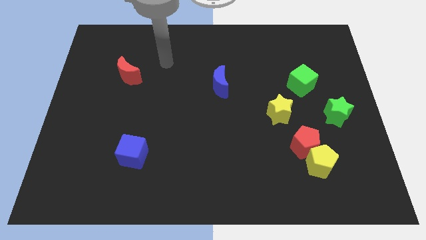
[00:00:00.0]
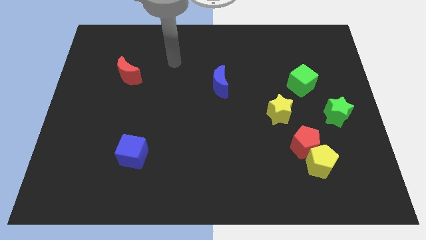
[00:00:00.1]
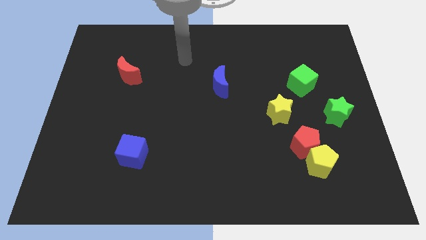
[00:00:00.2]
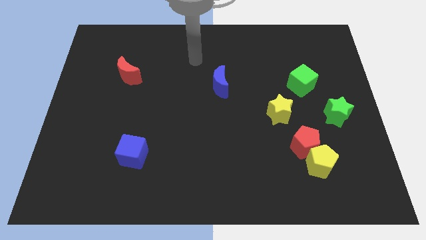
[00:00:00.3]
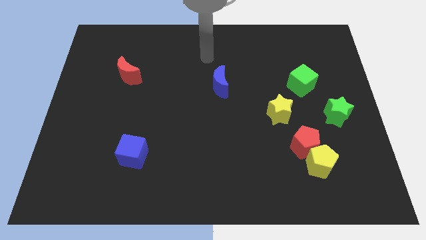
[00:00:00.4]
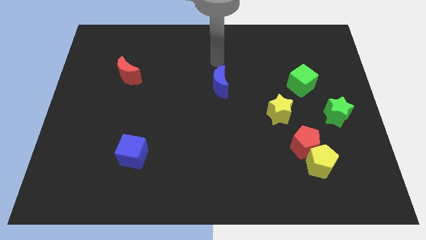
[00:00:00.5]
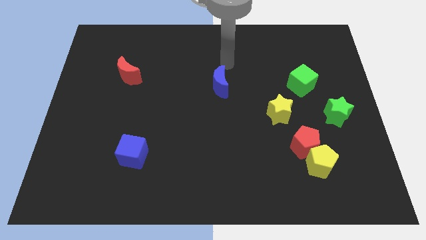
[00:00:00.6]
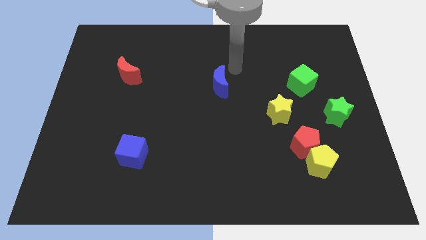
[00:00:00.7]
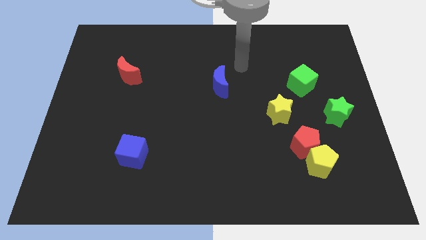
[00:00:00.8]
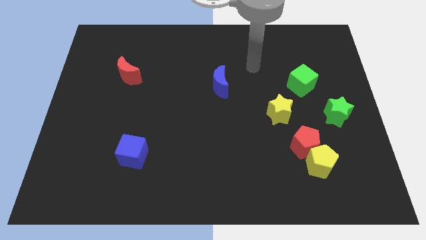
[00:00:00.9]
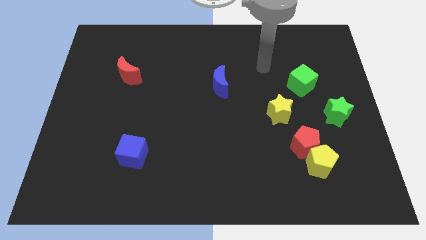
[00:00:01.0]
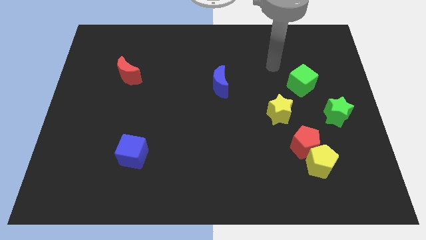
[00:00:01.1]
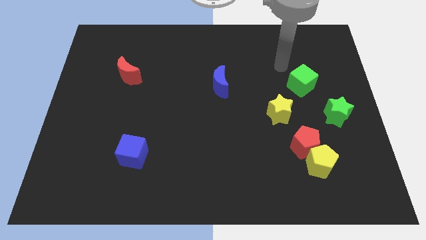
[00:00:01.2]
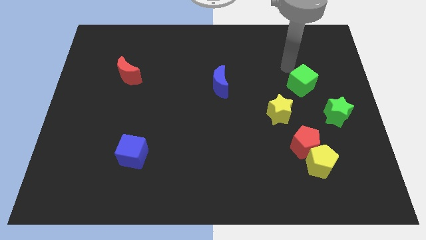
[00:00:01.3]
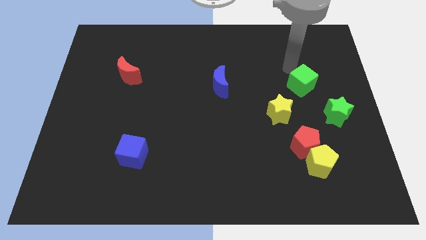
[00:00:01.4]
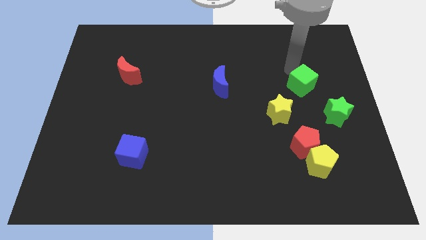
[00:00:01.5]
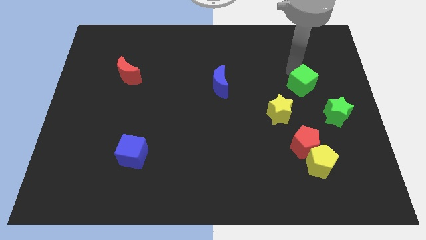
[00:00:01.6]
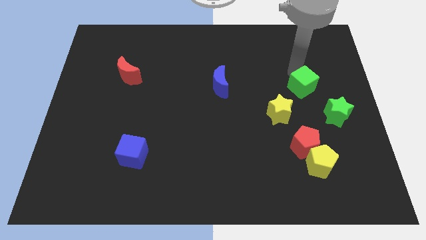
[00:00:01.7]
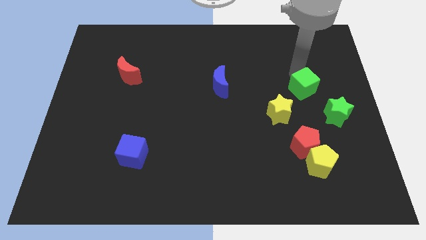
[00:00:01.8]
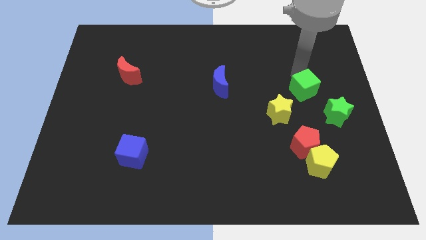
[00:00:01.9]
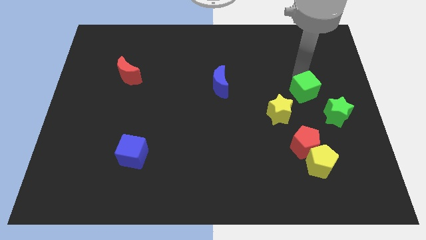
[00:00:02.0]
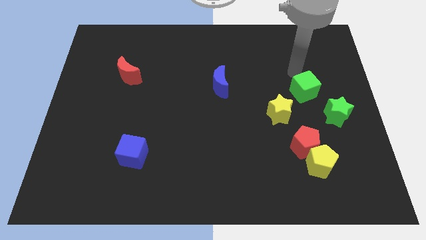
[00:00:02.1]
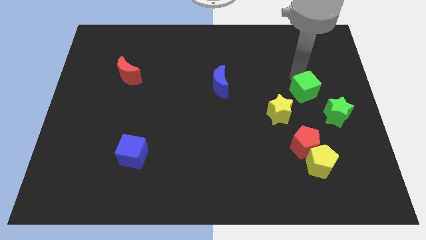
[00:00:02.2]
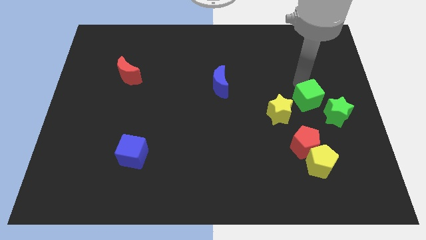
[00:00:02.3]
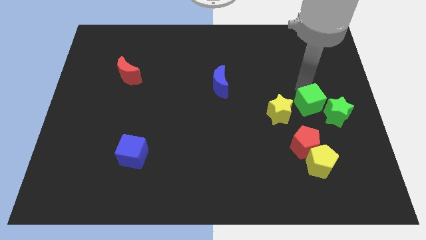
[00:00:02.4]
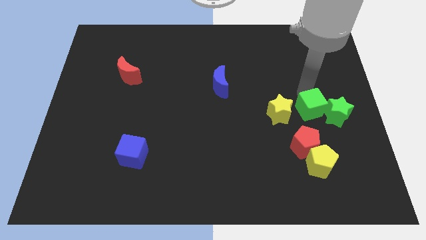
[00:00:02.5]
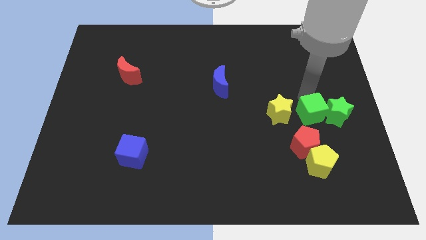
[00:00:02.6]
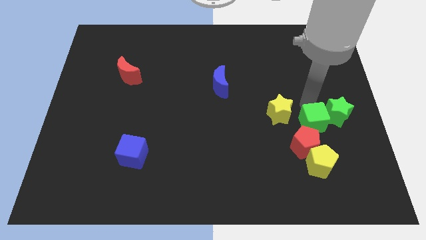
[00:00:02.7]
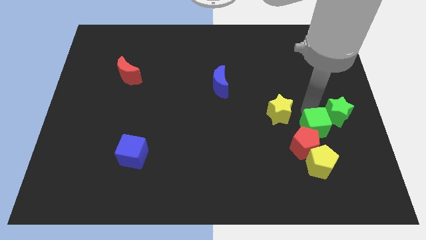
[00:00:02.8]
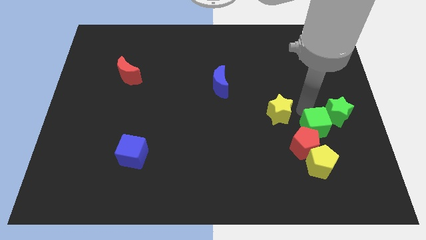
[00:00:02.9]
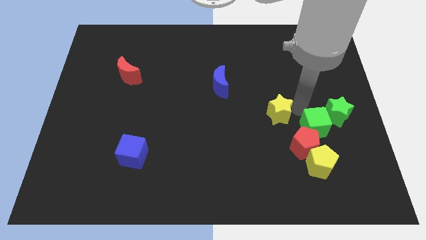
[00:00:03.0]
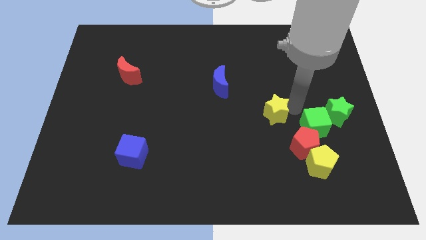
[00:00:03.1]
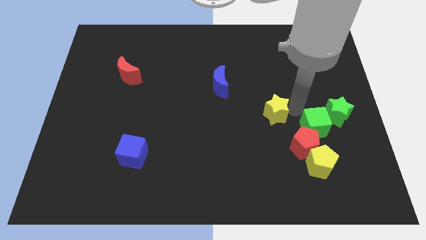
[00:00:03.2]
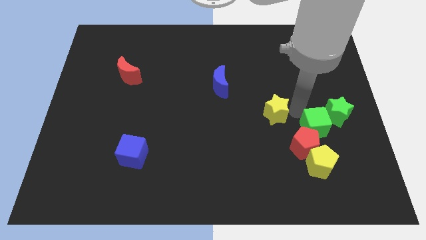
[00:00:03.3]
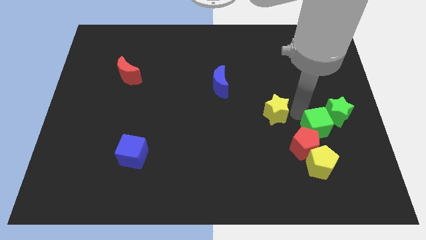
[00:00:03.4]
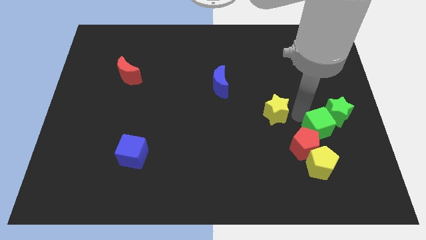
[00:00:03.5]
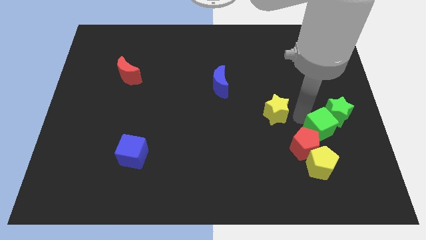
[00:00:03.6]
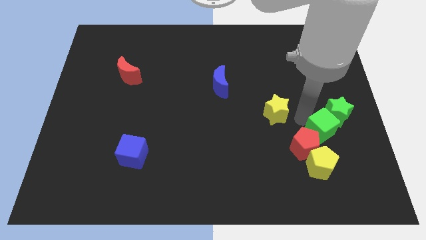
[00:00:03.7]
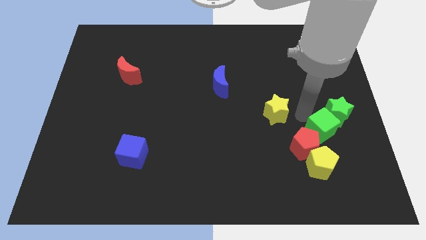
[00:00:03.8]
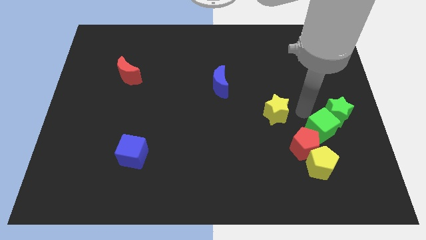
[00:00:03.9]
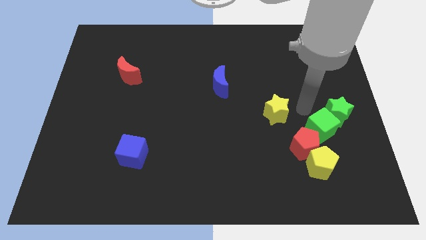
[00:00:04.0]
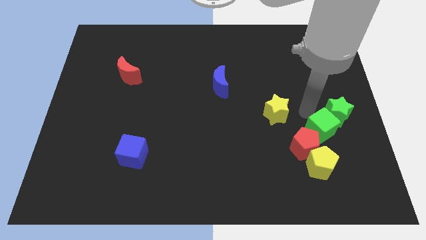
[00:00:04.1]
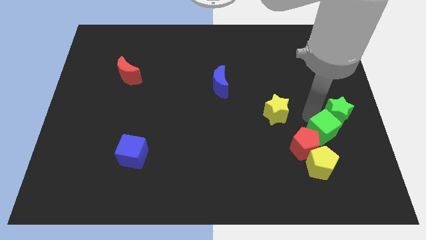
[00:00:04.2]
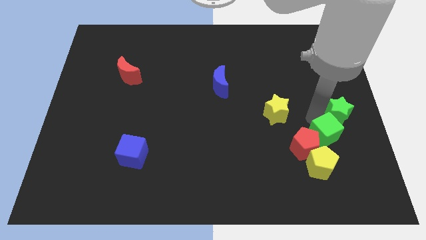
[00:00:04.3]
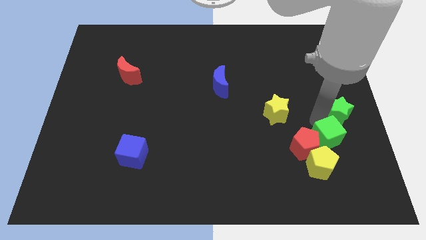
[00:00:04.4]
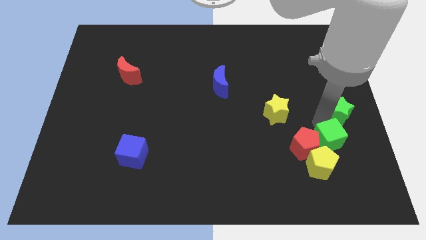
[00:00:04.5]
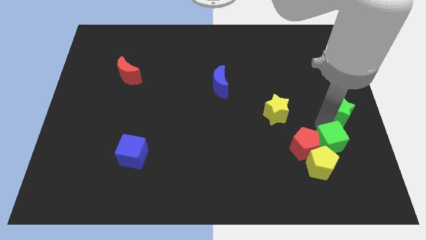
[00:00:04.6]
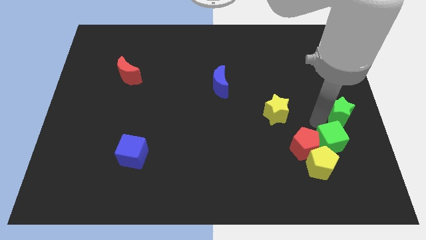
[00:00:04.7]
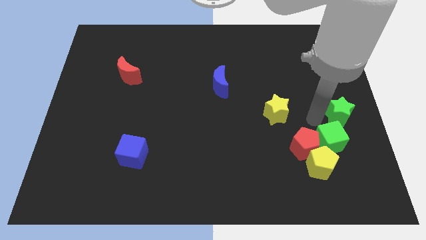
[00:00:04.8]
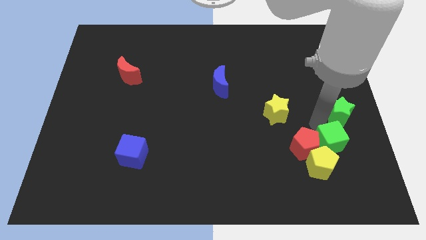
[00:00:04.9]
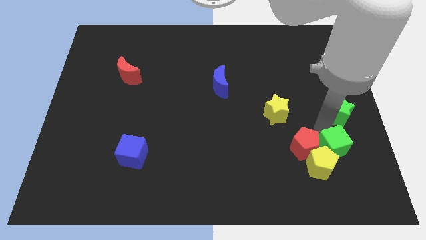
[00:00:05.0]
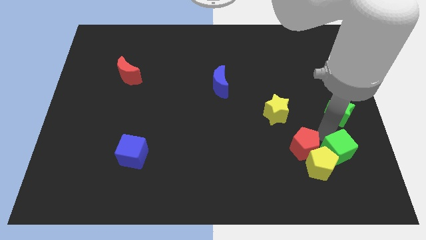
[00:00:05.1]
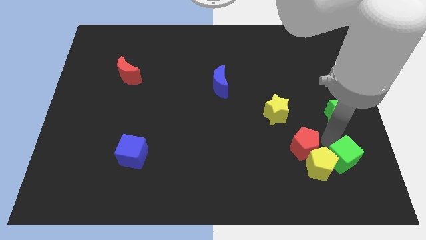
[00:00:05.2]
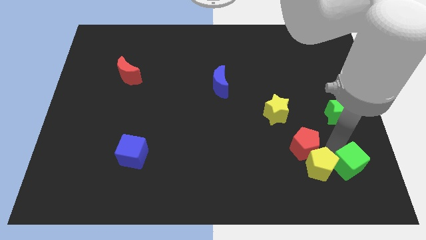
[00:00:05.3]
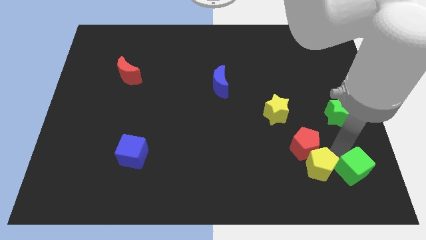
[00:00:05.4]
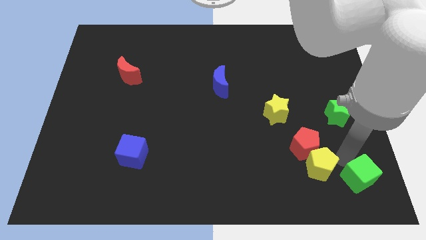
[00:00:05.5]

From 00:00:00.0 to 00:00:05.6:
slide the green cube to the bottom right

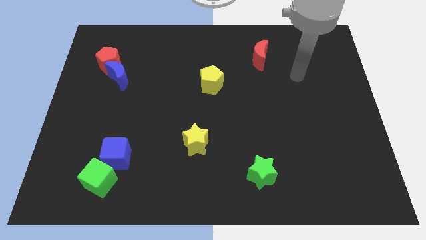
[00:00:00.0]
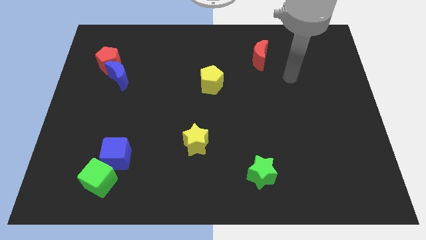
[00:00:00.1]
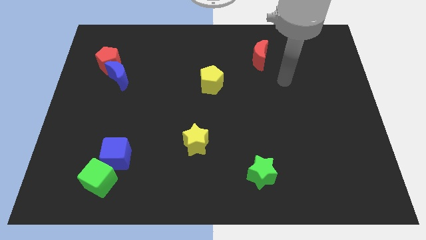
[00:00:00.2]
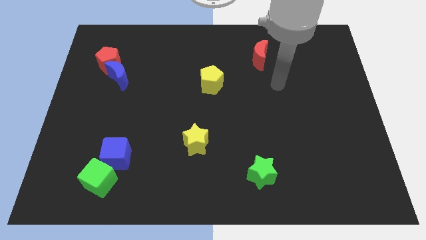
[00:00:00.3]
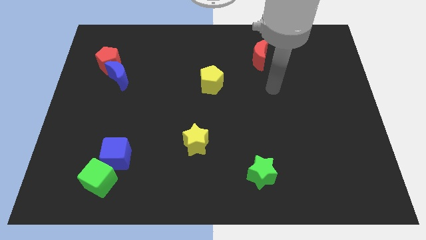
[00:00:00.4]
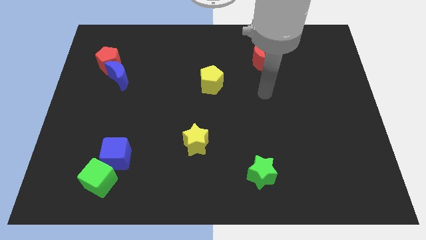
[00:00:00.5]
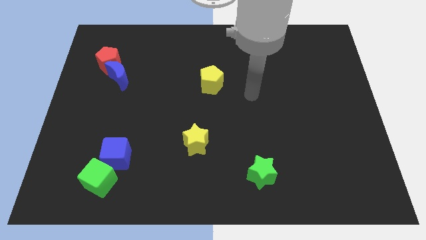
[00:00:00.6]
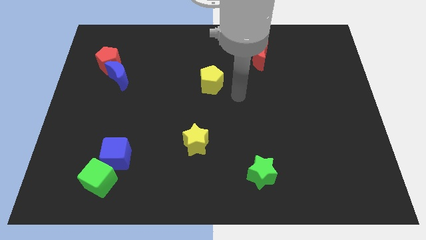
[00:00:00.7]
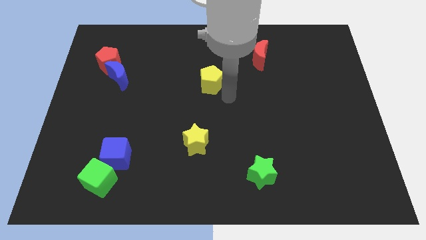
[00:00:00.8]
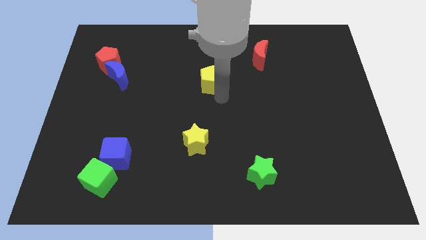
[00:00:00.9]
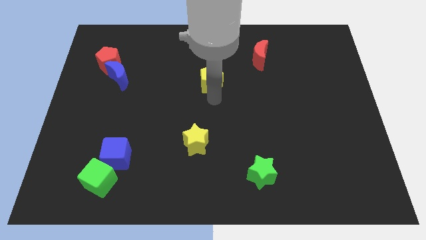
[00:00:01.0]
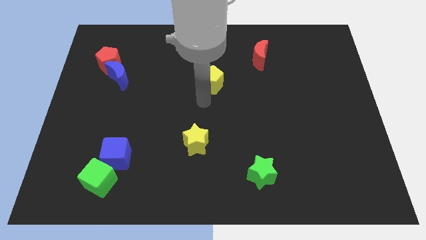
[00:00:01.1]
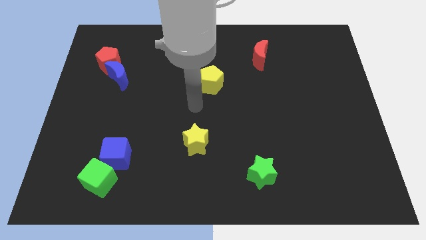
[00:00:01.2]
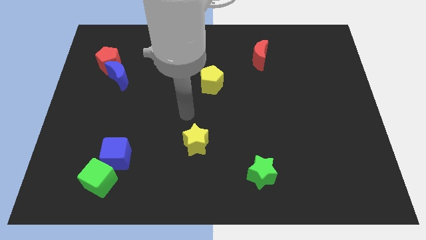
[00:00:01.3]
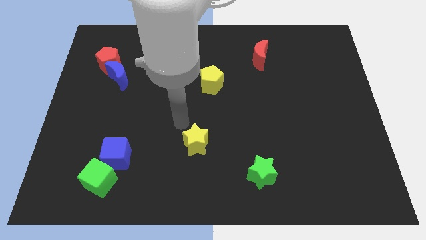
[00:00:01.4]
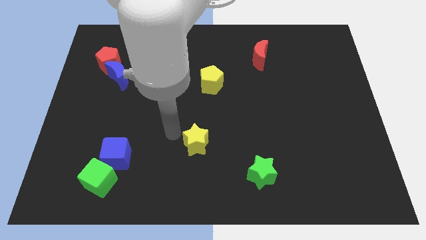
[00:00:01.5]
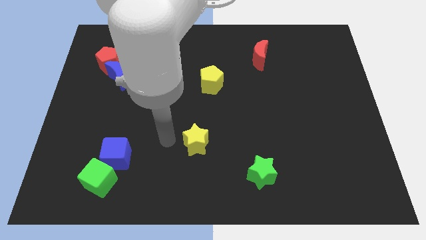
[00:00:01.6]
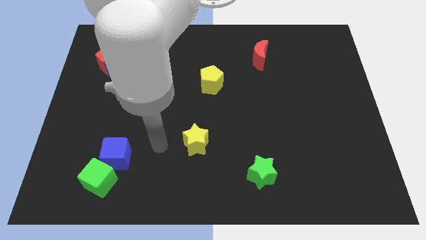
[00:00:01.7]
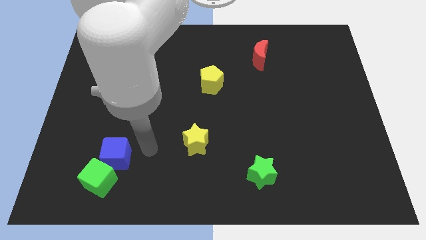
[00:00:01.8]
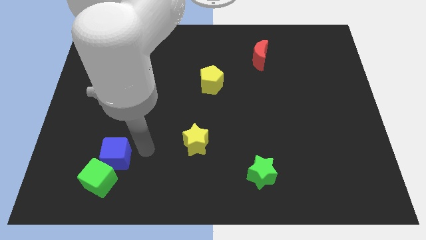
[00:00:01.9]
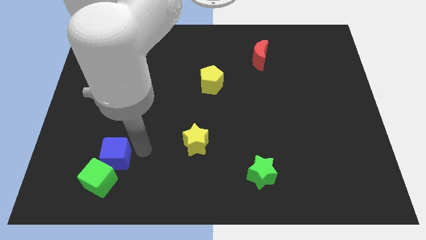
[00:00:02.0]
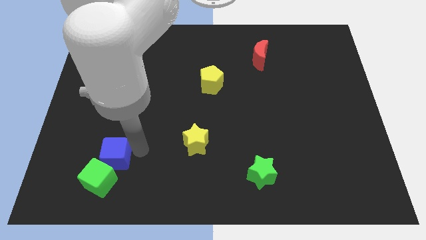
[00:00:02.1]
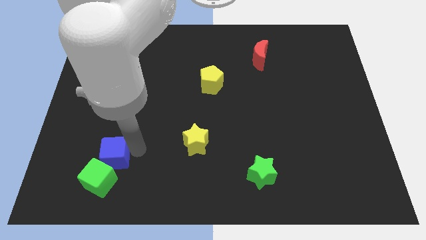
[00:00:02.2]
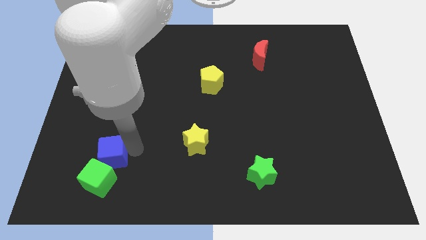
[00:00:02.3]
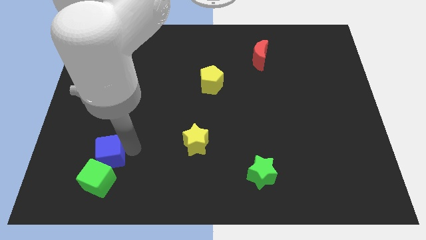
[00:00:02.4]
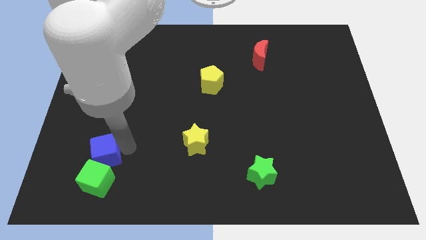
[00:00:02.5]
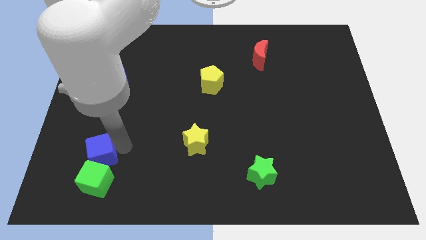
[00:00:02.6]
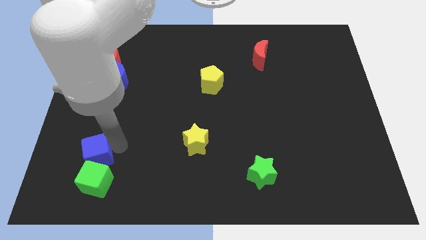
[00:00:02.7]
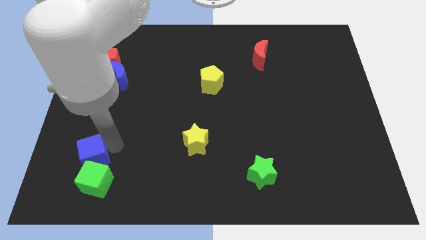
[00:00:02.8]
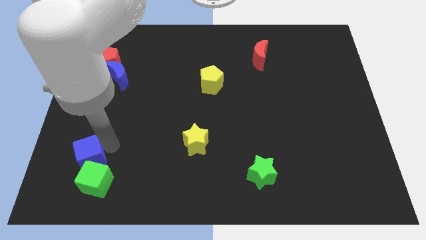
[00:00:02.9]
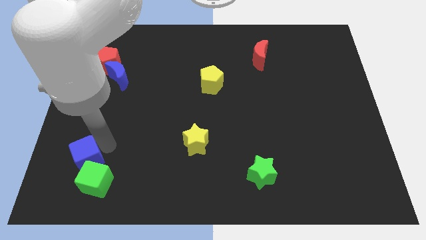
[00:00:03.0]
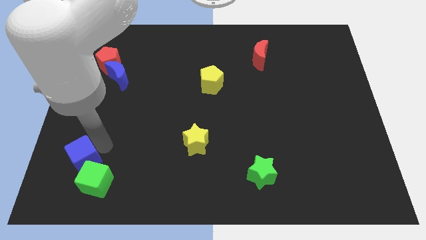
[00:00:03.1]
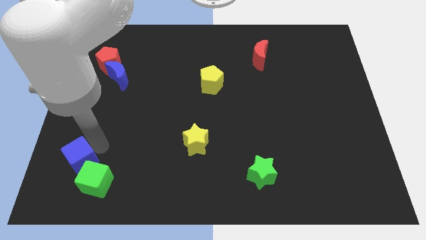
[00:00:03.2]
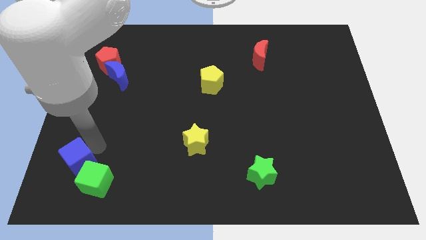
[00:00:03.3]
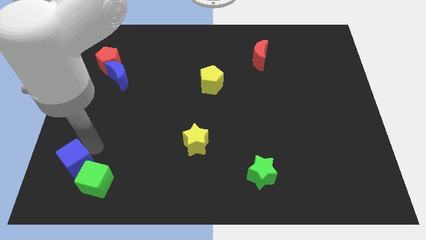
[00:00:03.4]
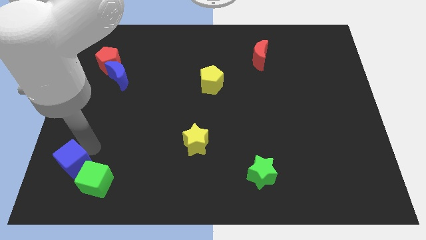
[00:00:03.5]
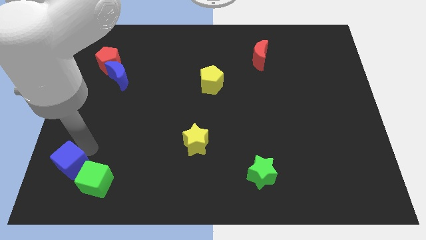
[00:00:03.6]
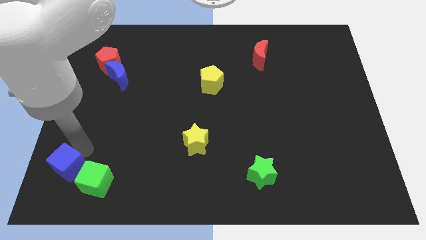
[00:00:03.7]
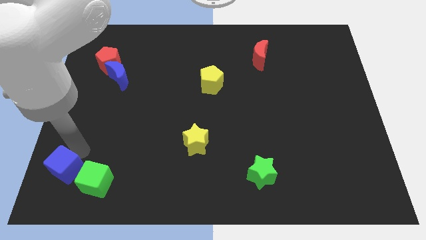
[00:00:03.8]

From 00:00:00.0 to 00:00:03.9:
move the blue cube to the bottom left
